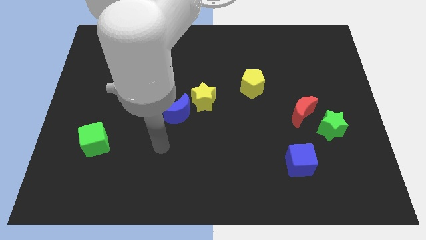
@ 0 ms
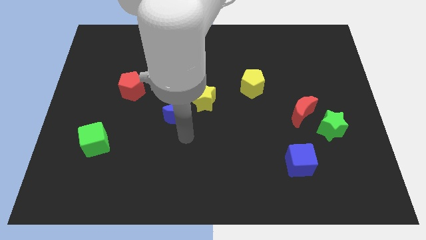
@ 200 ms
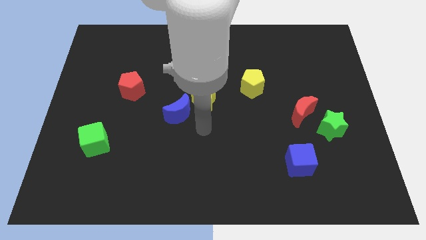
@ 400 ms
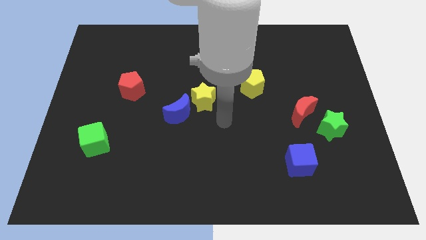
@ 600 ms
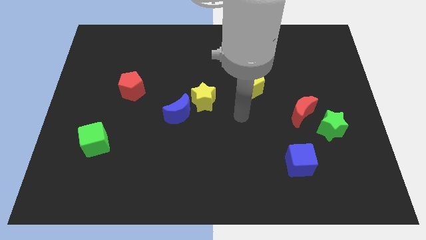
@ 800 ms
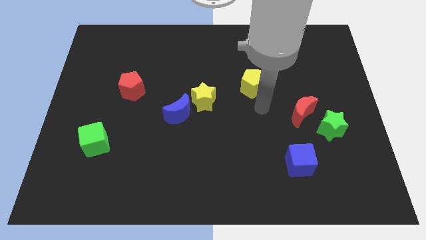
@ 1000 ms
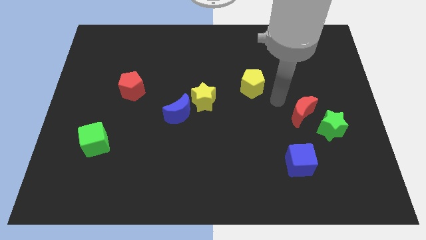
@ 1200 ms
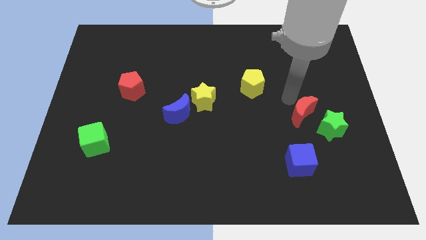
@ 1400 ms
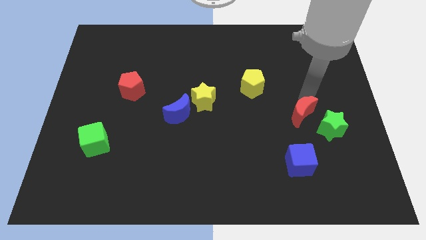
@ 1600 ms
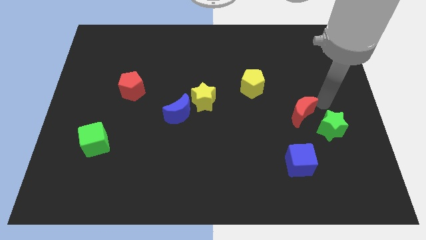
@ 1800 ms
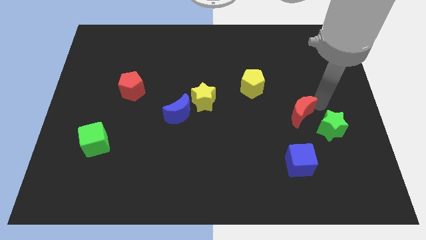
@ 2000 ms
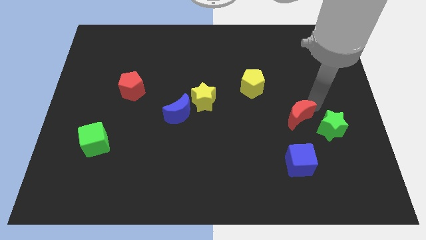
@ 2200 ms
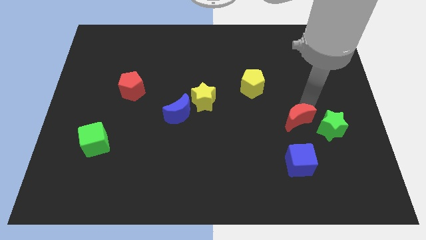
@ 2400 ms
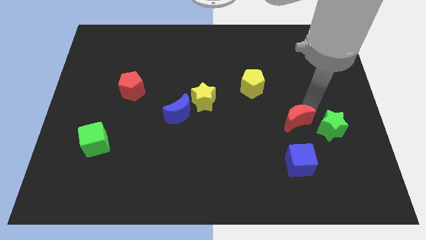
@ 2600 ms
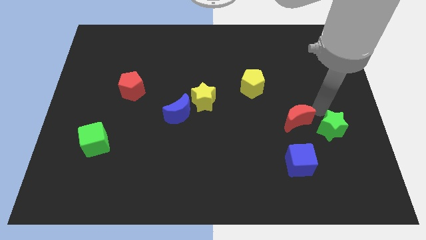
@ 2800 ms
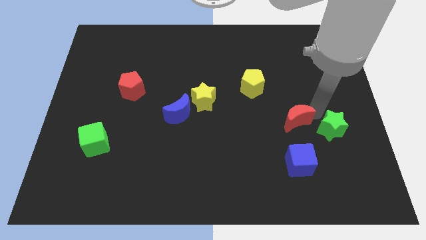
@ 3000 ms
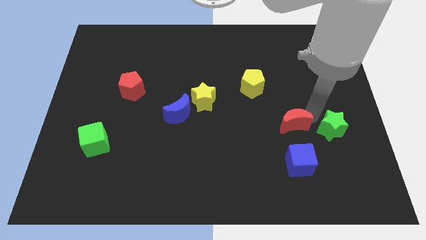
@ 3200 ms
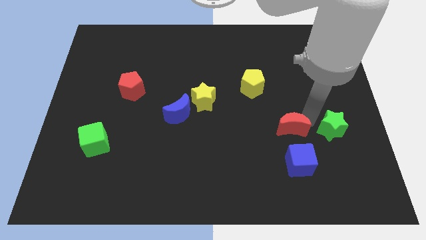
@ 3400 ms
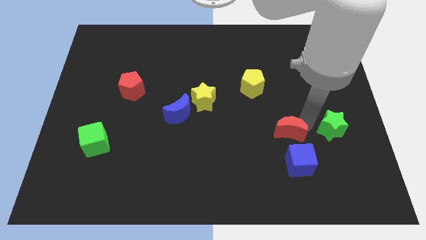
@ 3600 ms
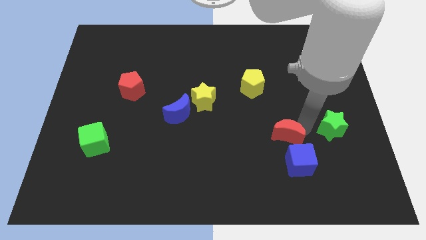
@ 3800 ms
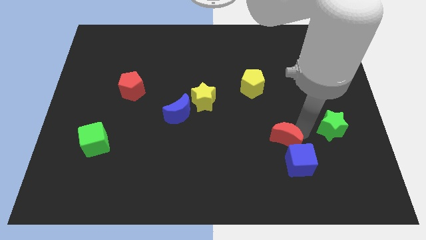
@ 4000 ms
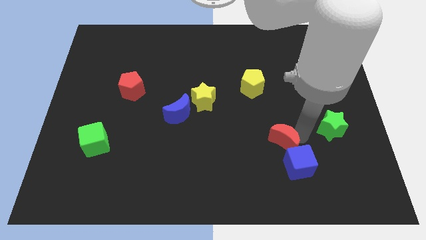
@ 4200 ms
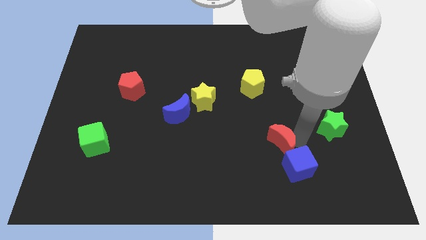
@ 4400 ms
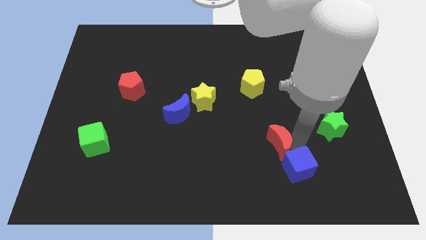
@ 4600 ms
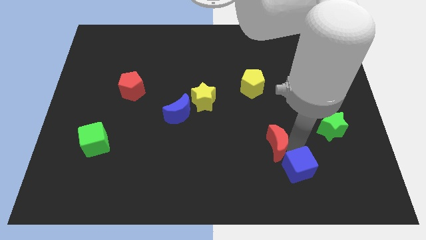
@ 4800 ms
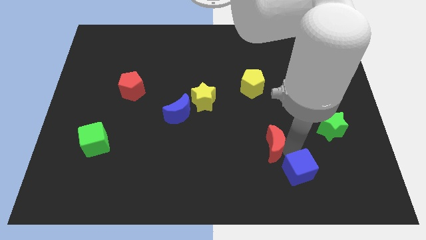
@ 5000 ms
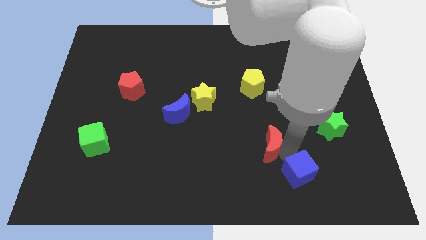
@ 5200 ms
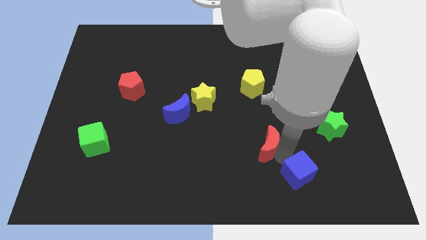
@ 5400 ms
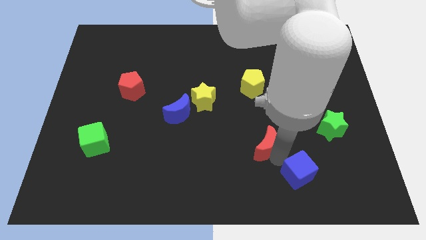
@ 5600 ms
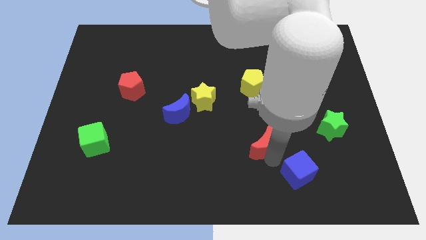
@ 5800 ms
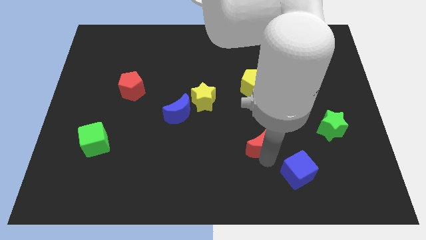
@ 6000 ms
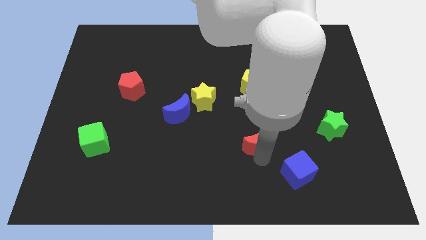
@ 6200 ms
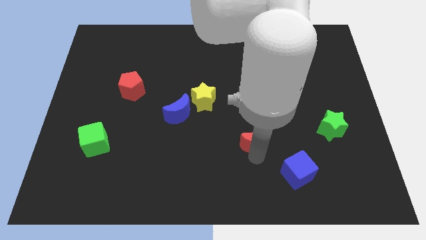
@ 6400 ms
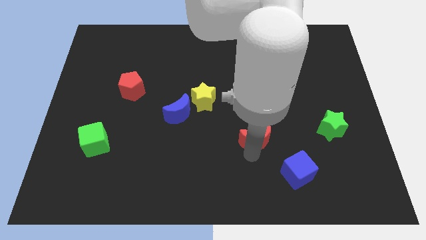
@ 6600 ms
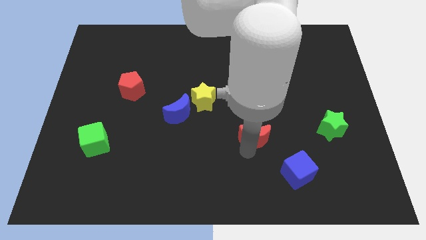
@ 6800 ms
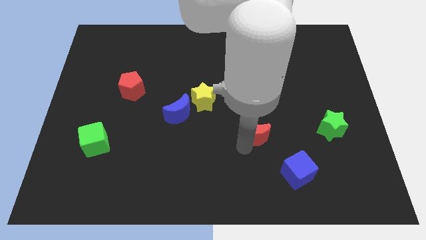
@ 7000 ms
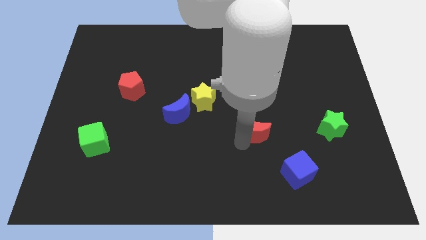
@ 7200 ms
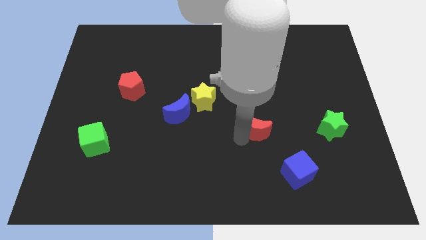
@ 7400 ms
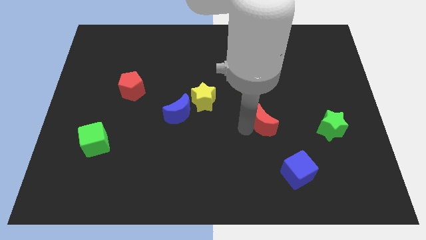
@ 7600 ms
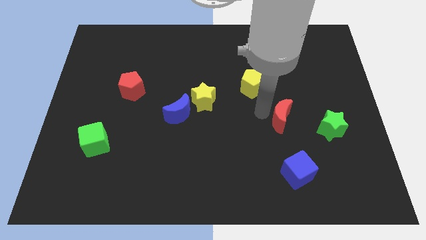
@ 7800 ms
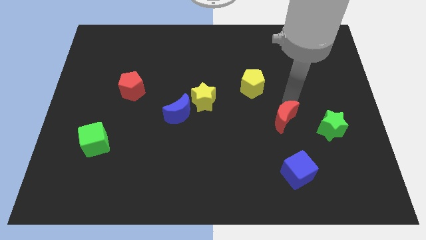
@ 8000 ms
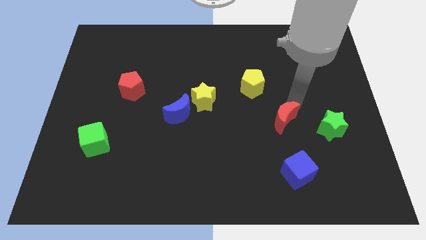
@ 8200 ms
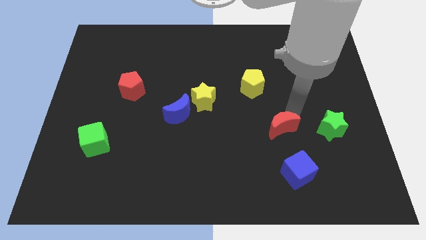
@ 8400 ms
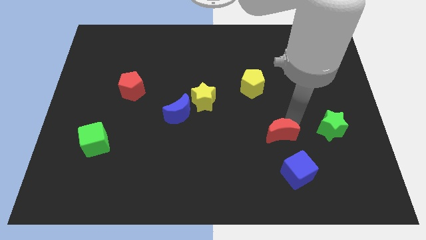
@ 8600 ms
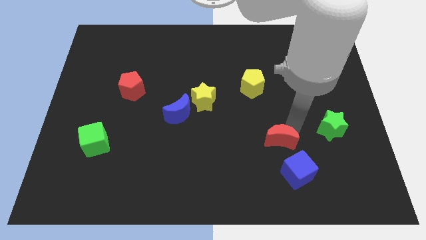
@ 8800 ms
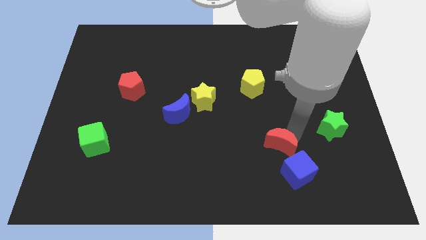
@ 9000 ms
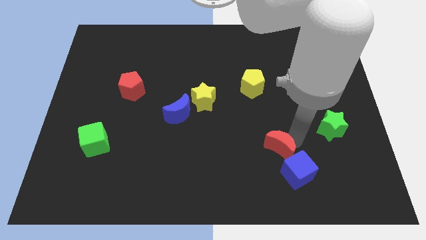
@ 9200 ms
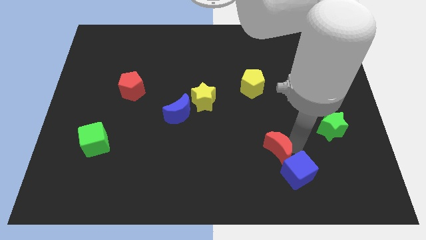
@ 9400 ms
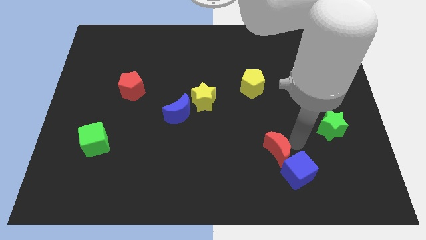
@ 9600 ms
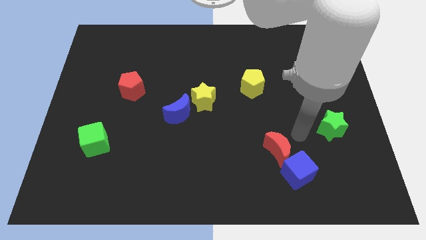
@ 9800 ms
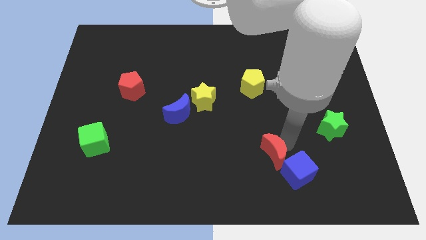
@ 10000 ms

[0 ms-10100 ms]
put the red moon left of the blue cube

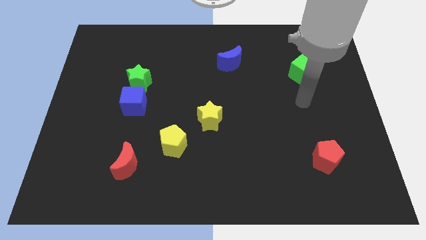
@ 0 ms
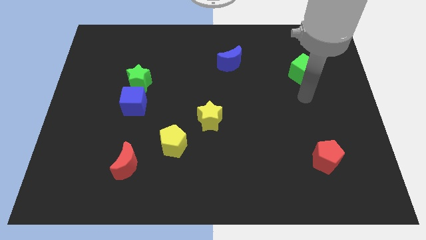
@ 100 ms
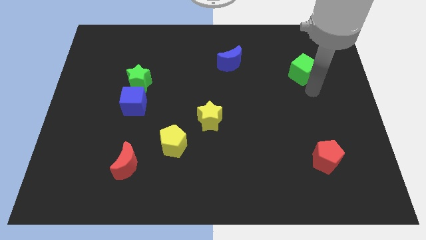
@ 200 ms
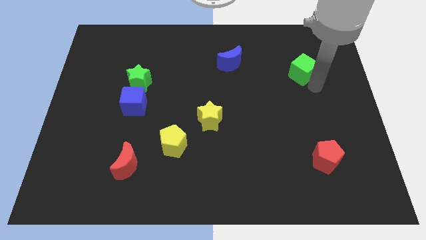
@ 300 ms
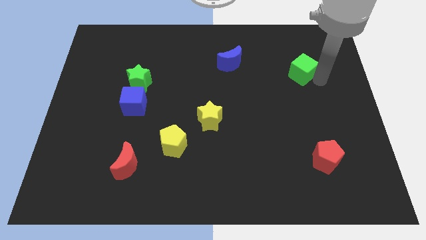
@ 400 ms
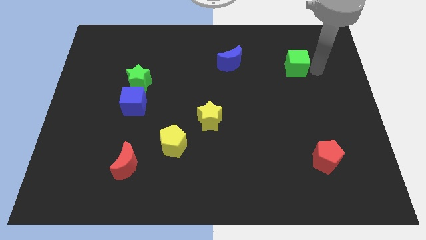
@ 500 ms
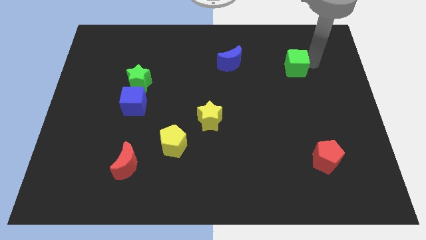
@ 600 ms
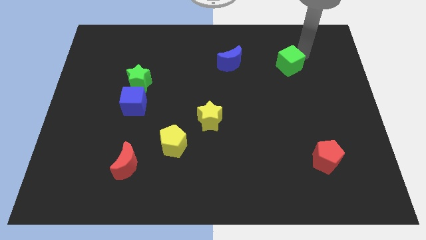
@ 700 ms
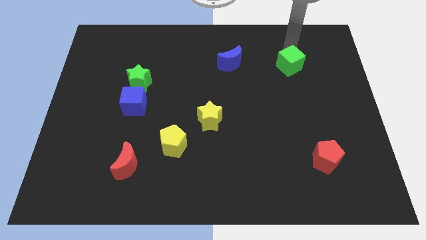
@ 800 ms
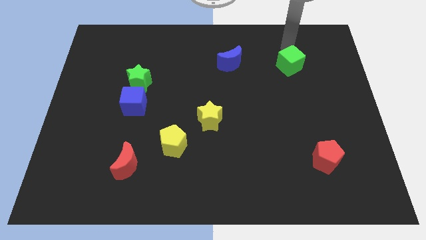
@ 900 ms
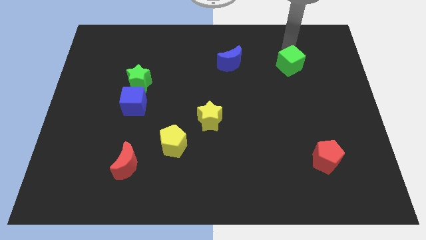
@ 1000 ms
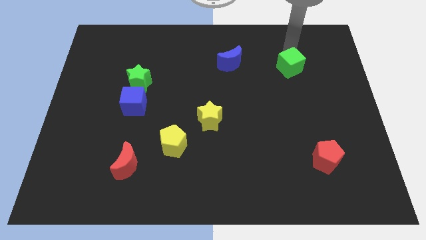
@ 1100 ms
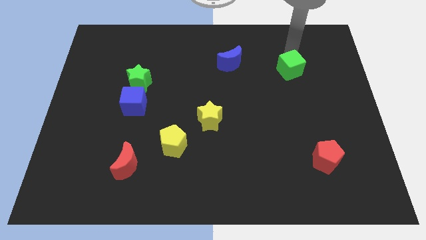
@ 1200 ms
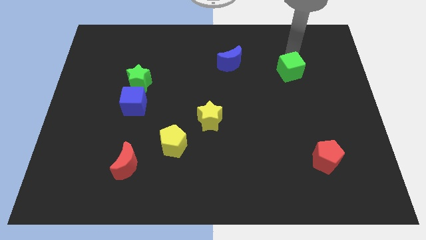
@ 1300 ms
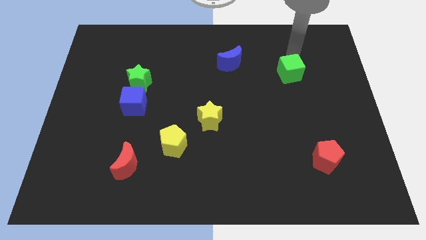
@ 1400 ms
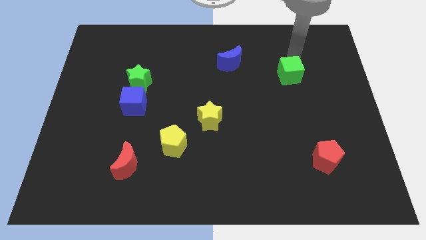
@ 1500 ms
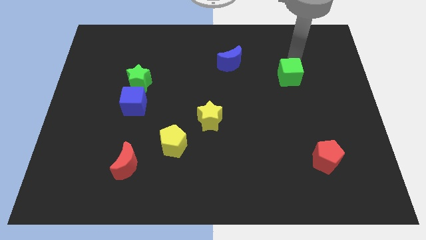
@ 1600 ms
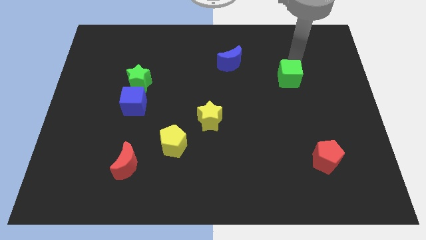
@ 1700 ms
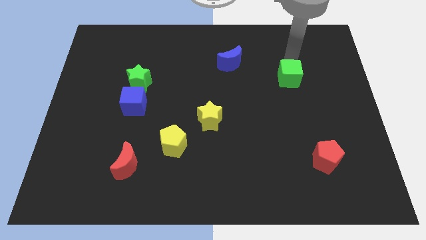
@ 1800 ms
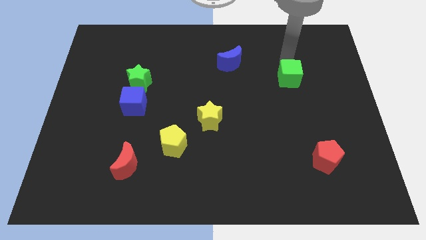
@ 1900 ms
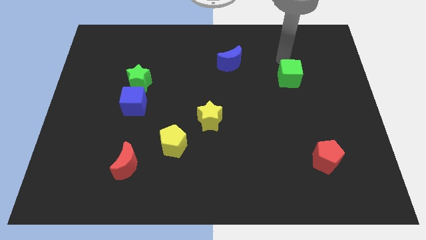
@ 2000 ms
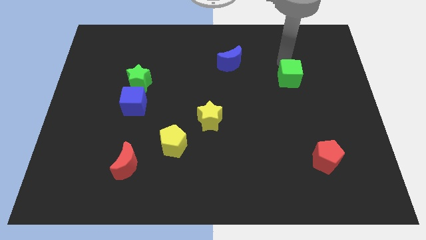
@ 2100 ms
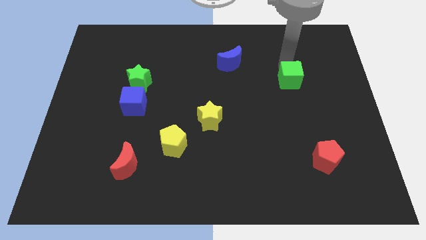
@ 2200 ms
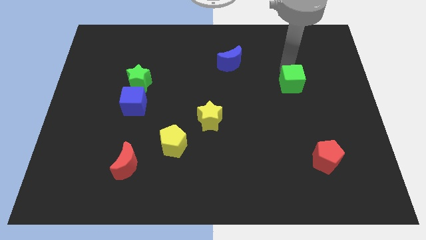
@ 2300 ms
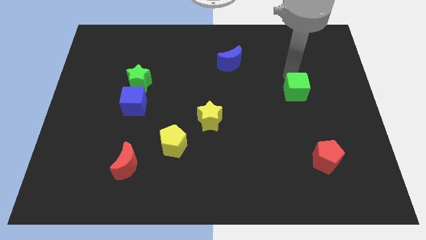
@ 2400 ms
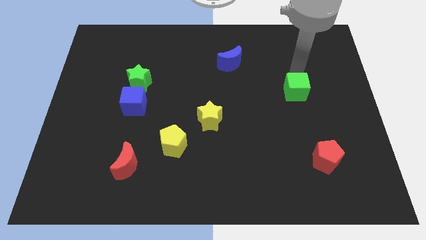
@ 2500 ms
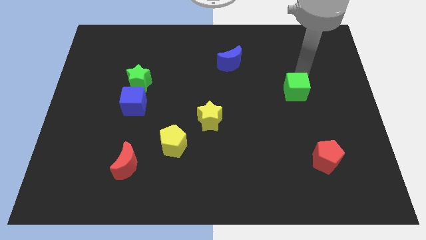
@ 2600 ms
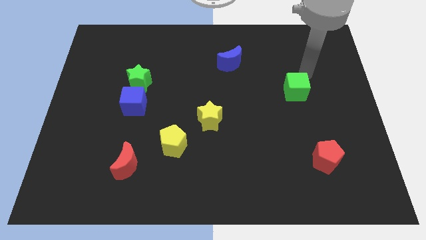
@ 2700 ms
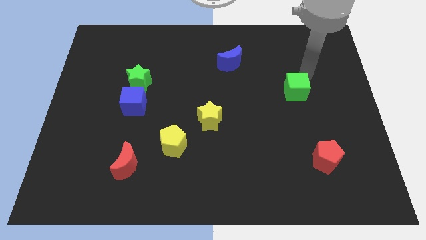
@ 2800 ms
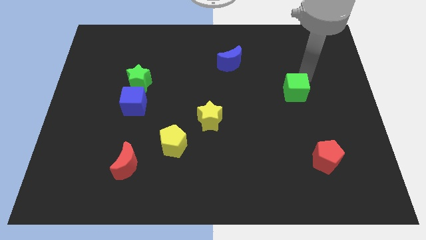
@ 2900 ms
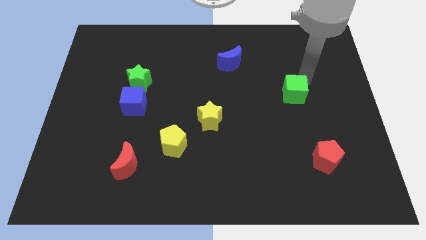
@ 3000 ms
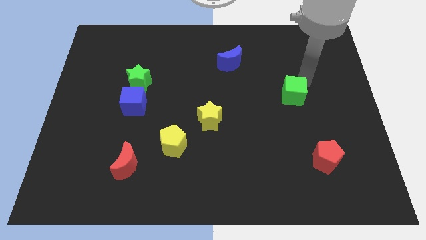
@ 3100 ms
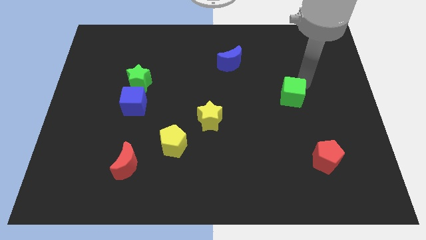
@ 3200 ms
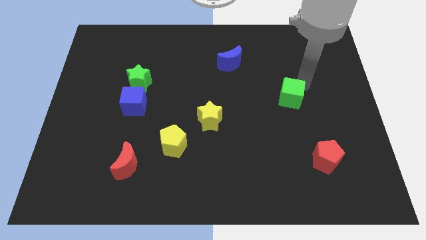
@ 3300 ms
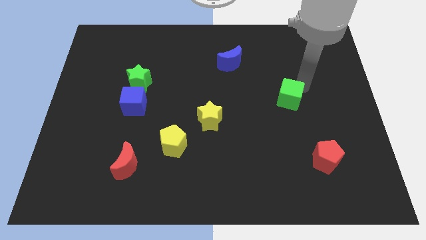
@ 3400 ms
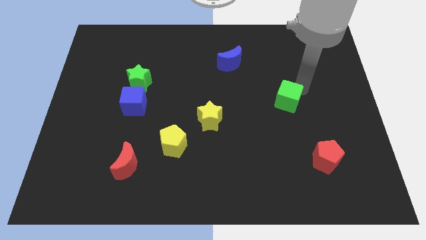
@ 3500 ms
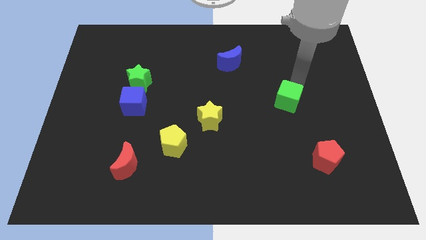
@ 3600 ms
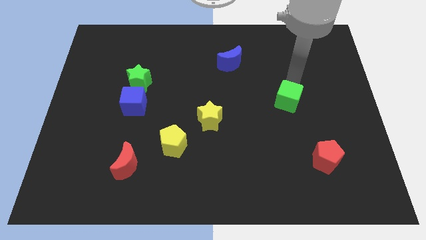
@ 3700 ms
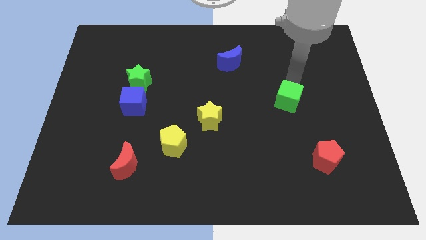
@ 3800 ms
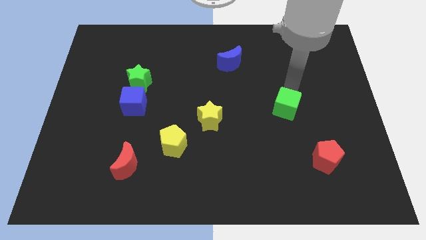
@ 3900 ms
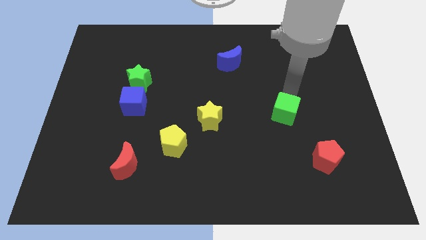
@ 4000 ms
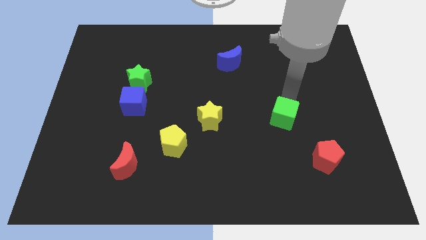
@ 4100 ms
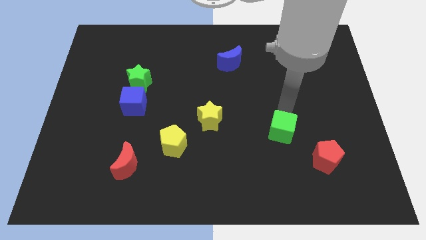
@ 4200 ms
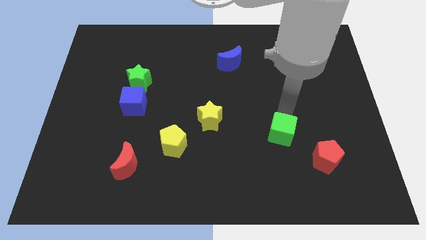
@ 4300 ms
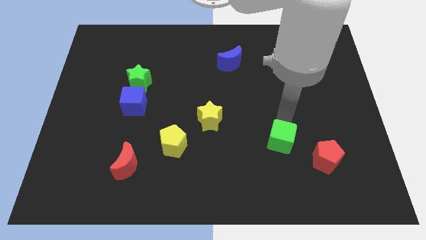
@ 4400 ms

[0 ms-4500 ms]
push the green cube left of the red pentagon
